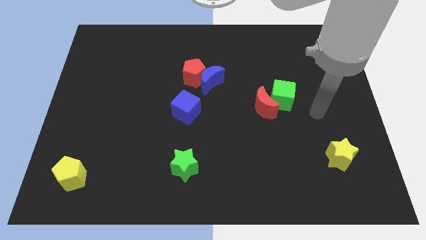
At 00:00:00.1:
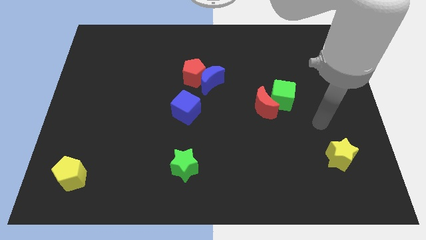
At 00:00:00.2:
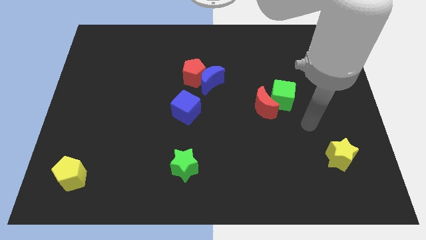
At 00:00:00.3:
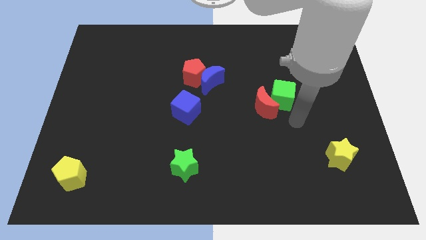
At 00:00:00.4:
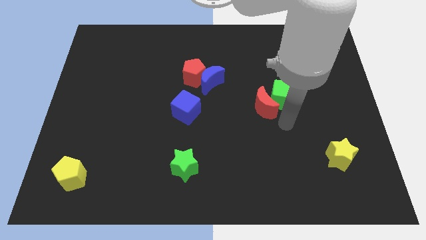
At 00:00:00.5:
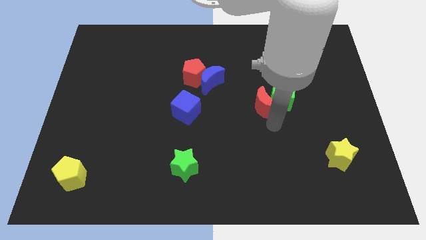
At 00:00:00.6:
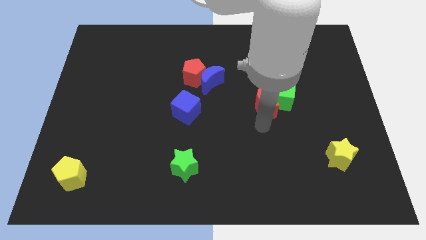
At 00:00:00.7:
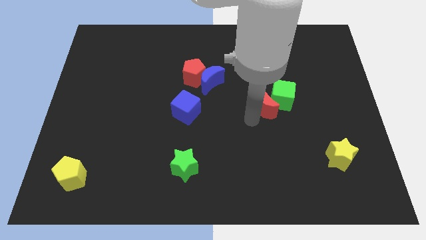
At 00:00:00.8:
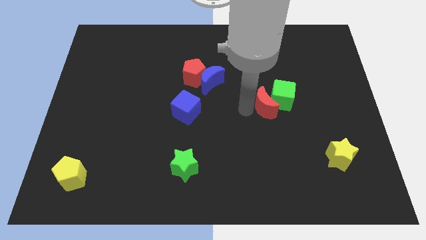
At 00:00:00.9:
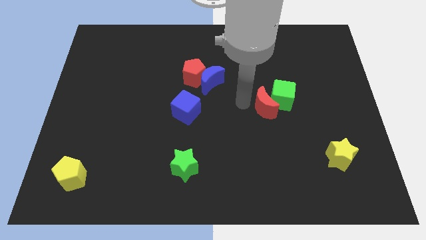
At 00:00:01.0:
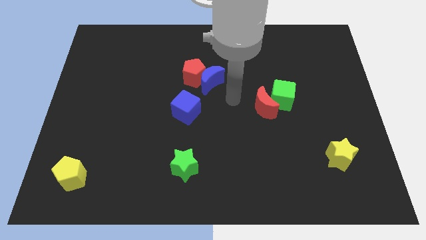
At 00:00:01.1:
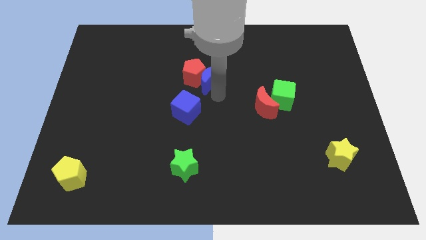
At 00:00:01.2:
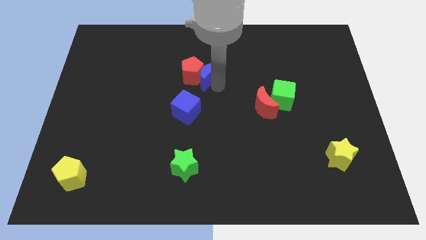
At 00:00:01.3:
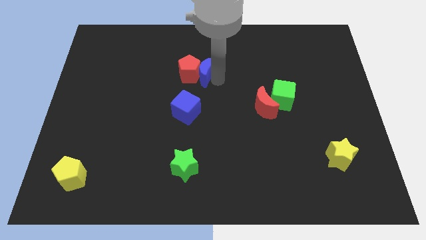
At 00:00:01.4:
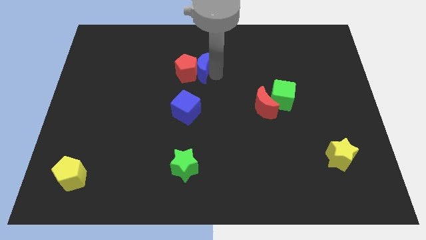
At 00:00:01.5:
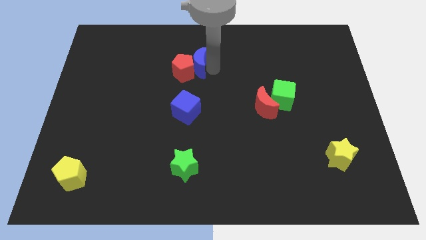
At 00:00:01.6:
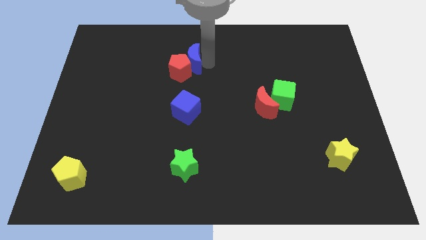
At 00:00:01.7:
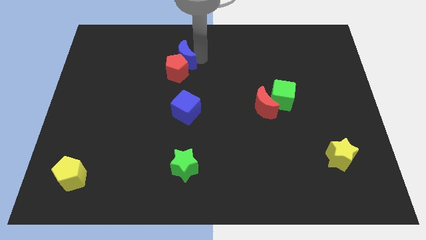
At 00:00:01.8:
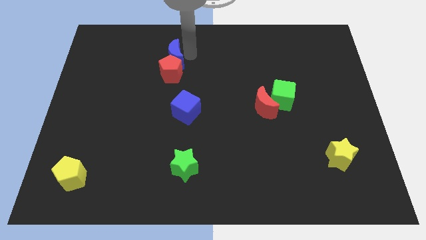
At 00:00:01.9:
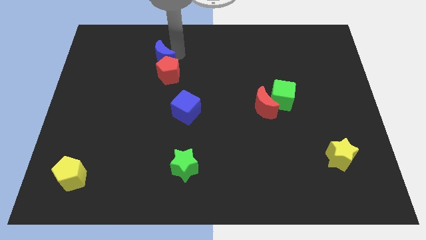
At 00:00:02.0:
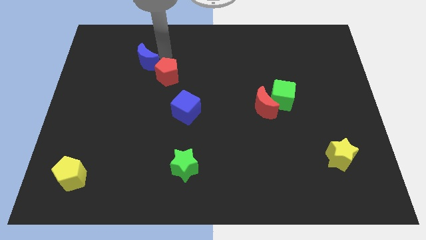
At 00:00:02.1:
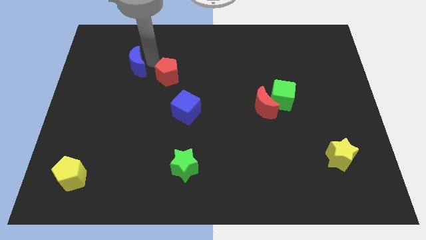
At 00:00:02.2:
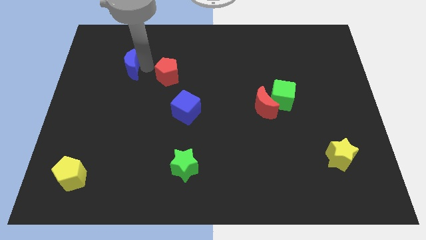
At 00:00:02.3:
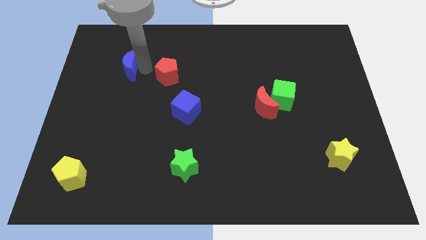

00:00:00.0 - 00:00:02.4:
separate the red pentagon from the blue moon

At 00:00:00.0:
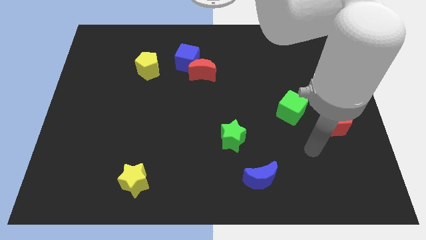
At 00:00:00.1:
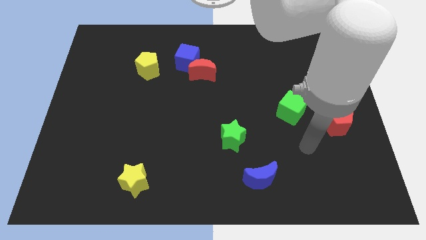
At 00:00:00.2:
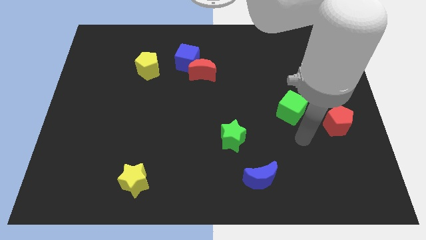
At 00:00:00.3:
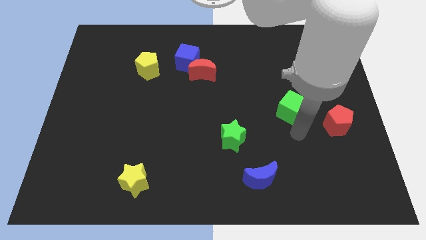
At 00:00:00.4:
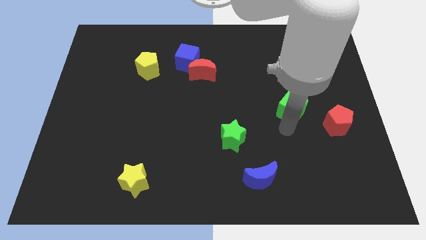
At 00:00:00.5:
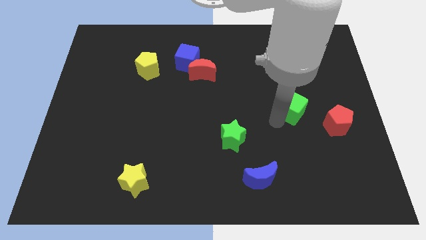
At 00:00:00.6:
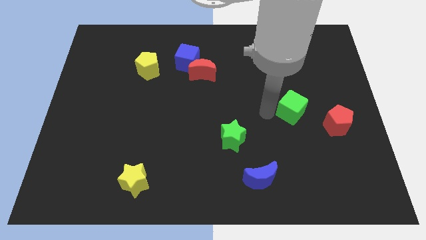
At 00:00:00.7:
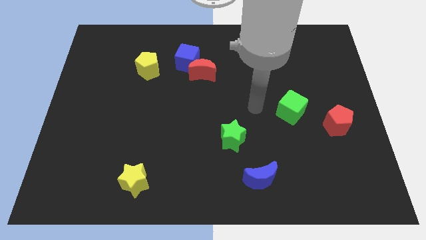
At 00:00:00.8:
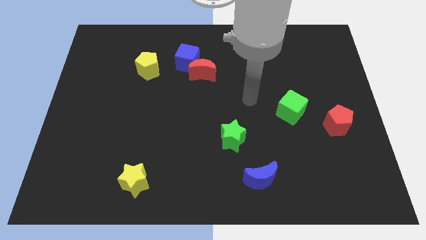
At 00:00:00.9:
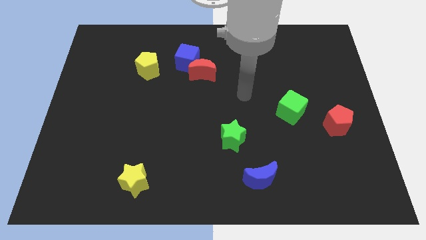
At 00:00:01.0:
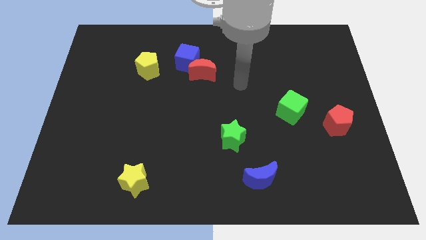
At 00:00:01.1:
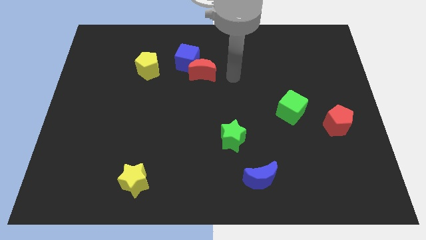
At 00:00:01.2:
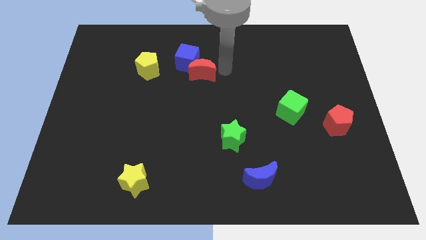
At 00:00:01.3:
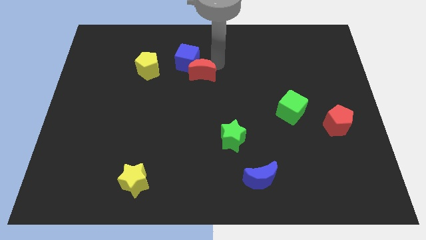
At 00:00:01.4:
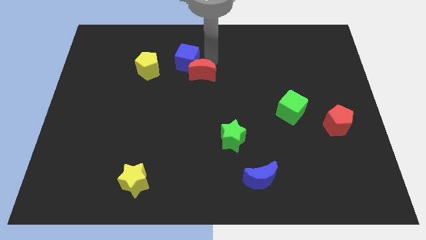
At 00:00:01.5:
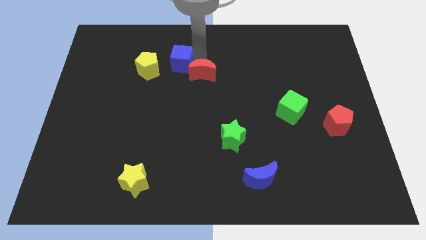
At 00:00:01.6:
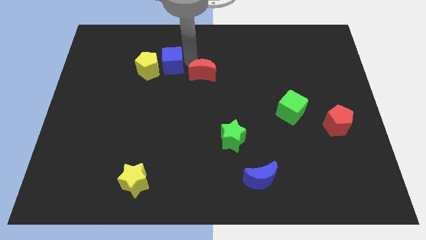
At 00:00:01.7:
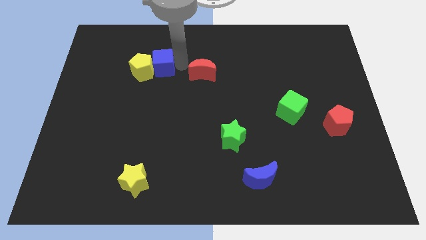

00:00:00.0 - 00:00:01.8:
separate the red moon from the blue cube

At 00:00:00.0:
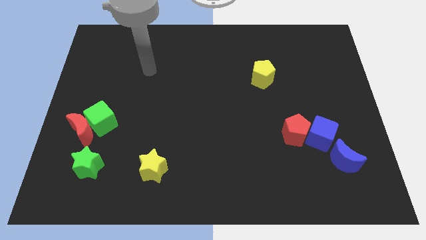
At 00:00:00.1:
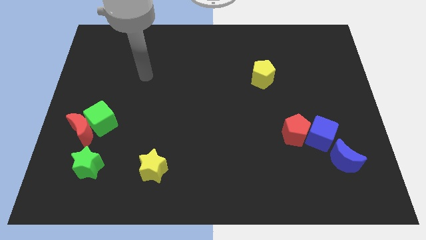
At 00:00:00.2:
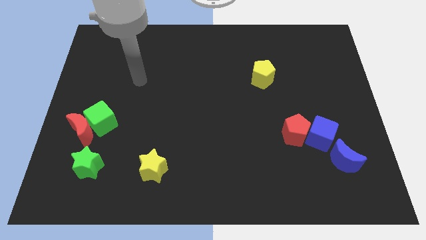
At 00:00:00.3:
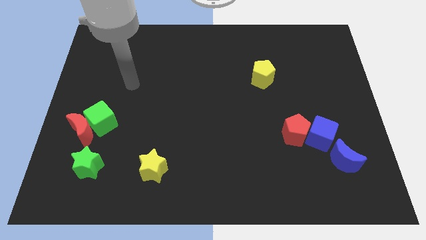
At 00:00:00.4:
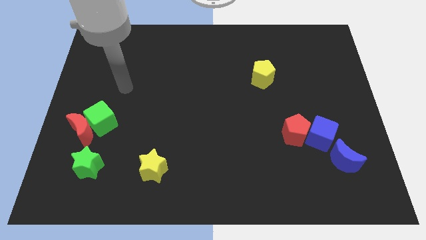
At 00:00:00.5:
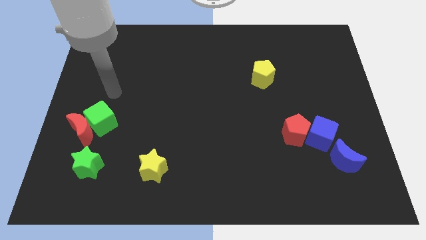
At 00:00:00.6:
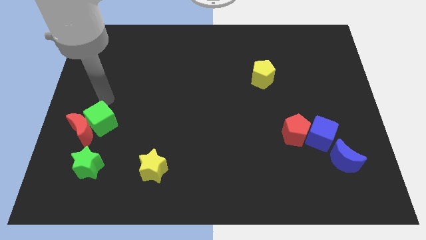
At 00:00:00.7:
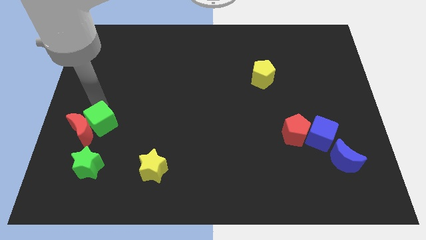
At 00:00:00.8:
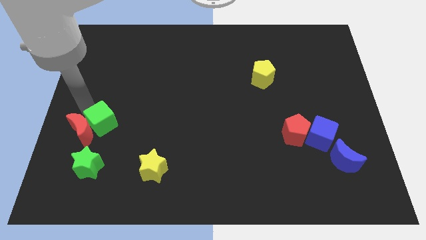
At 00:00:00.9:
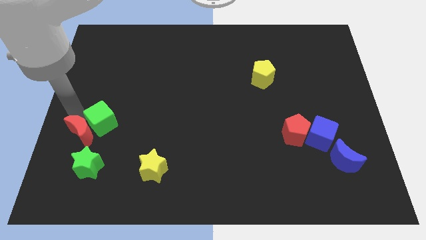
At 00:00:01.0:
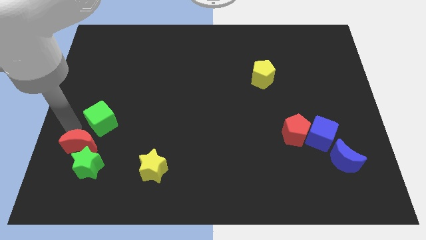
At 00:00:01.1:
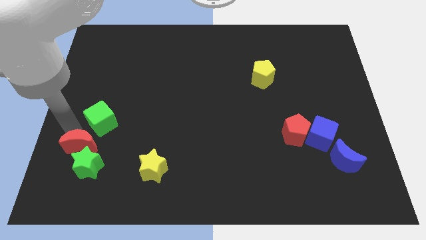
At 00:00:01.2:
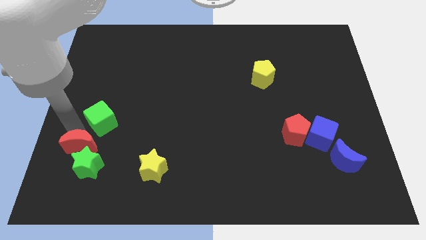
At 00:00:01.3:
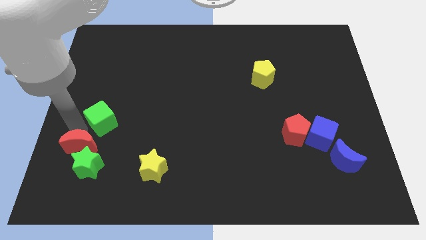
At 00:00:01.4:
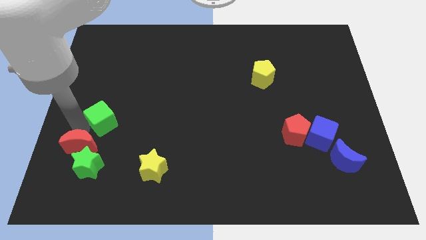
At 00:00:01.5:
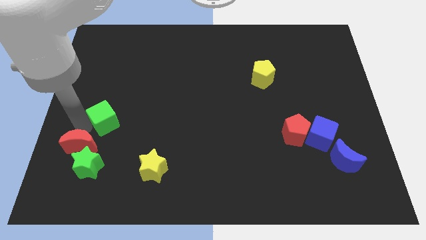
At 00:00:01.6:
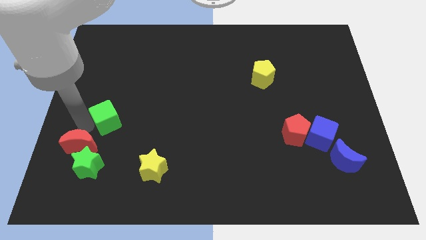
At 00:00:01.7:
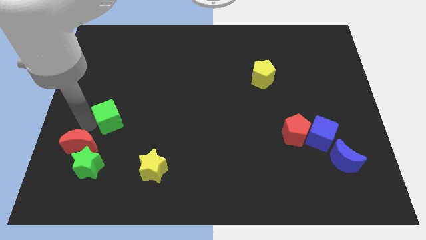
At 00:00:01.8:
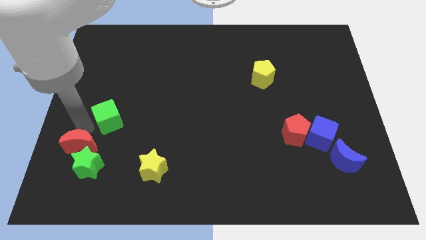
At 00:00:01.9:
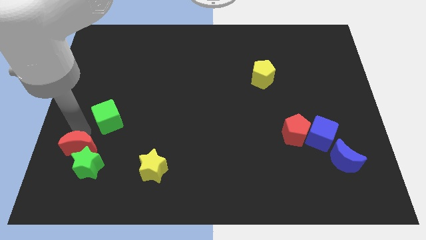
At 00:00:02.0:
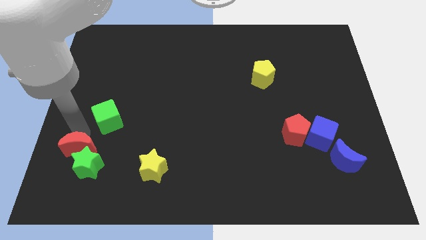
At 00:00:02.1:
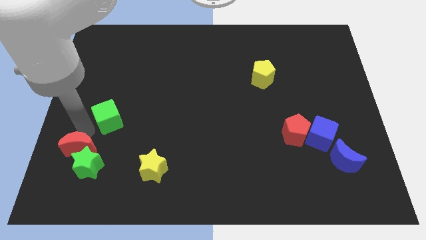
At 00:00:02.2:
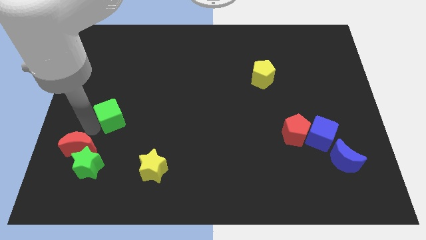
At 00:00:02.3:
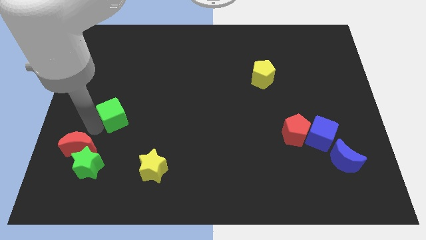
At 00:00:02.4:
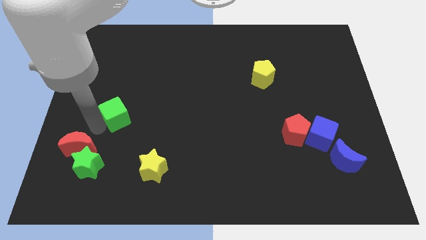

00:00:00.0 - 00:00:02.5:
separate the green cube from the red moon

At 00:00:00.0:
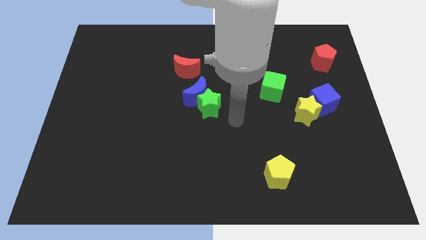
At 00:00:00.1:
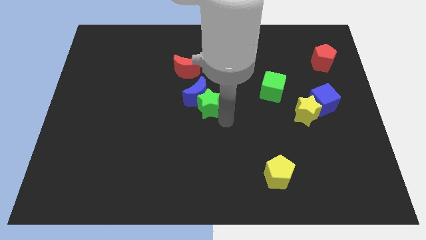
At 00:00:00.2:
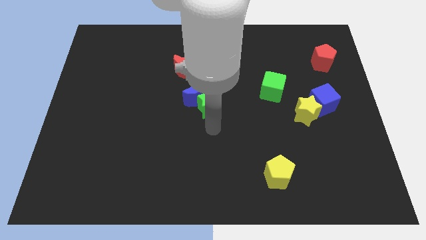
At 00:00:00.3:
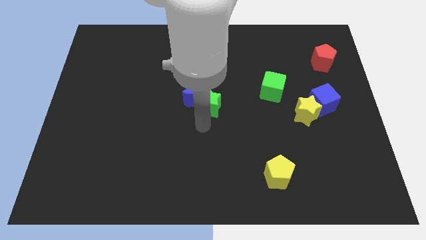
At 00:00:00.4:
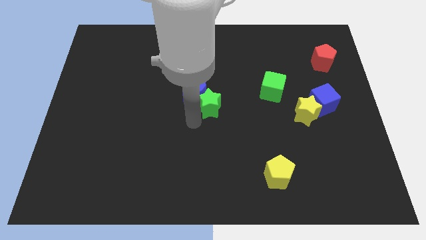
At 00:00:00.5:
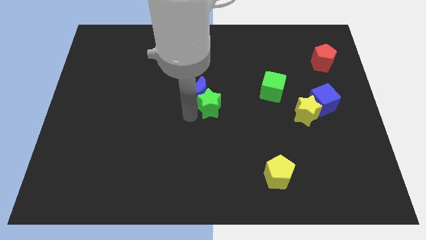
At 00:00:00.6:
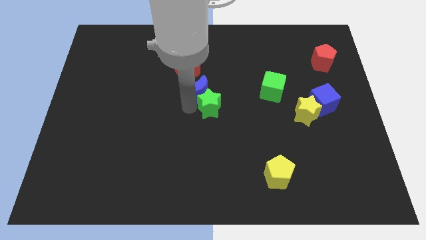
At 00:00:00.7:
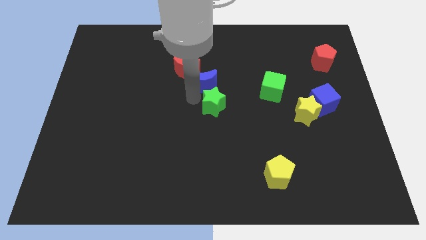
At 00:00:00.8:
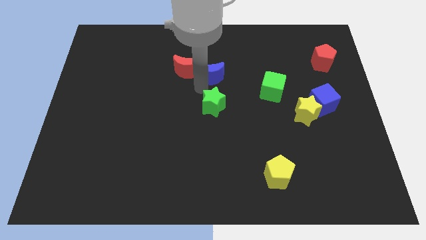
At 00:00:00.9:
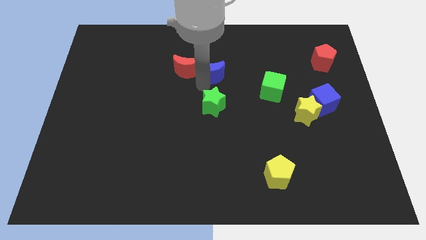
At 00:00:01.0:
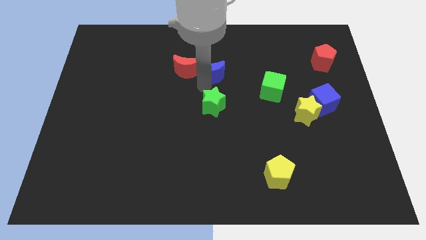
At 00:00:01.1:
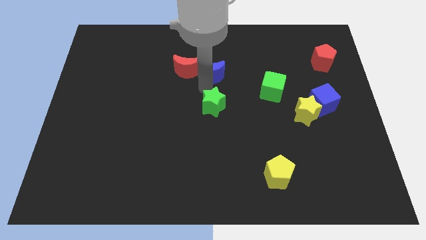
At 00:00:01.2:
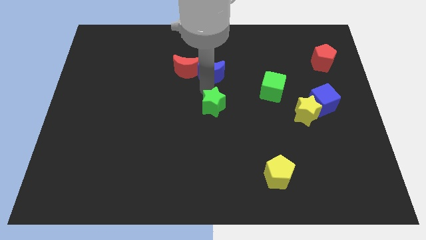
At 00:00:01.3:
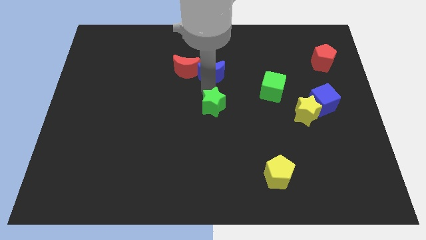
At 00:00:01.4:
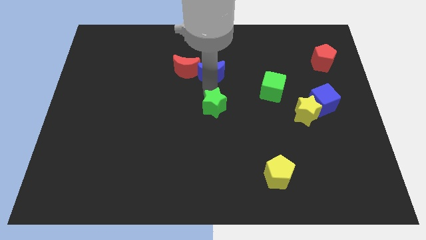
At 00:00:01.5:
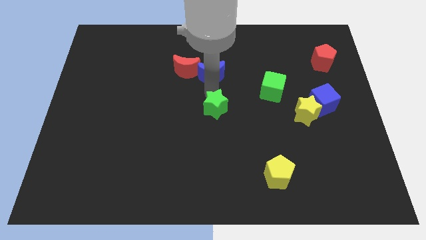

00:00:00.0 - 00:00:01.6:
pull the green star apart from the blue moon

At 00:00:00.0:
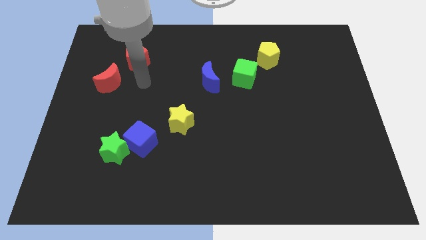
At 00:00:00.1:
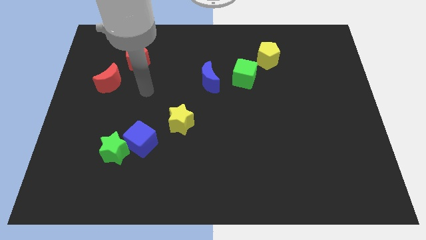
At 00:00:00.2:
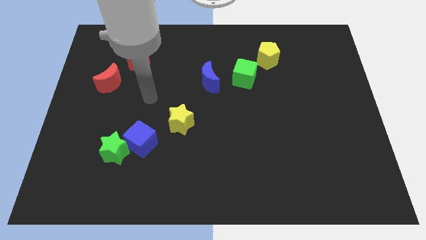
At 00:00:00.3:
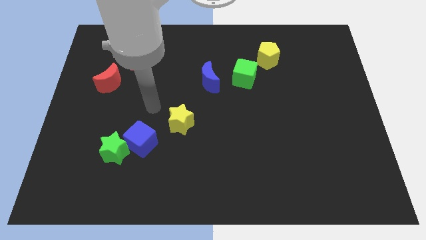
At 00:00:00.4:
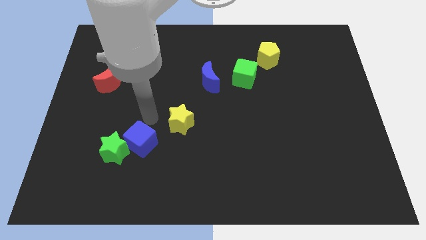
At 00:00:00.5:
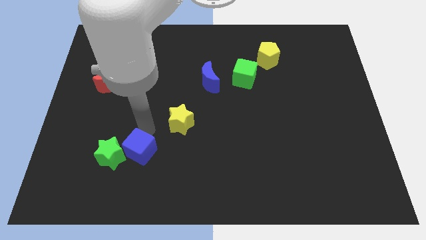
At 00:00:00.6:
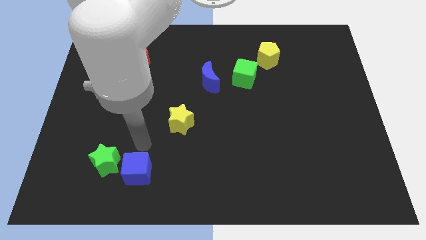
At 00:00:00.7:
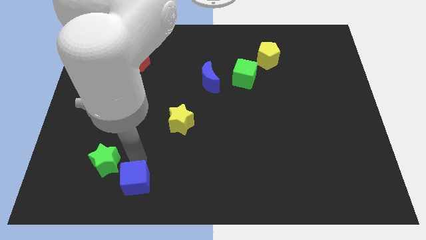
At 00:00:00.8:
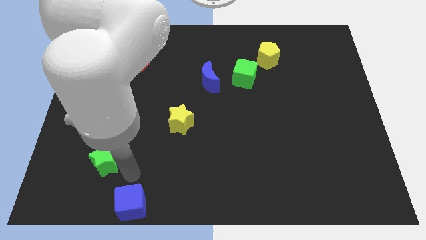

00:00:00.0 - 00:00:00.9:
move the green star away from the blue cube
